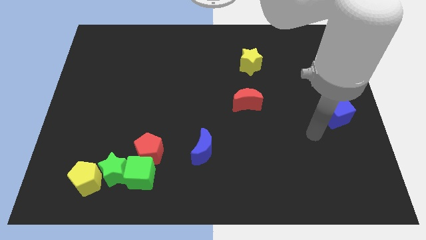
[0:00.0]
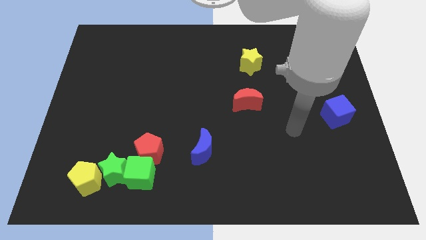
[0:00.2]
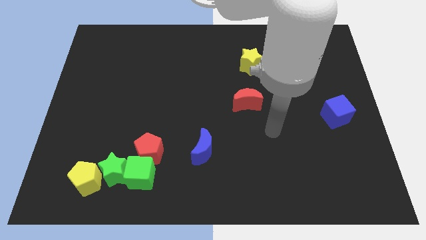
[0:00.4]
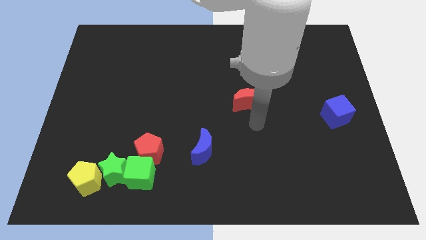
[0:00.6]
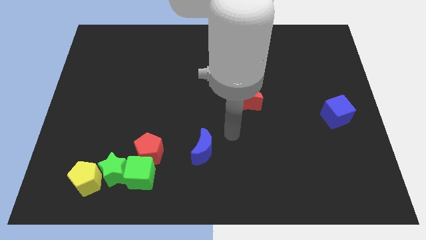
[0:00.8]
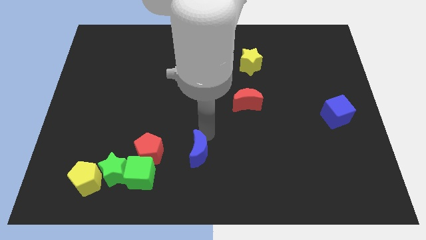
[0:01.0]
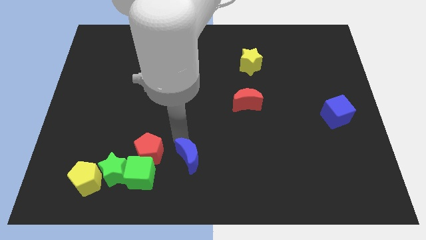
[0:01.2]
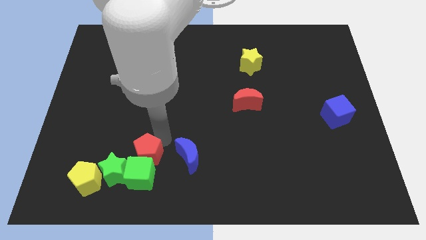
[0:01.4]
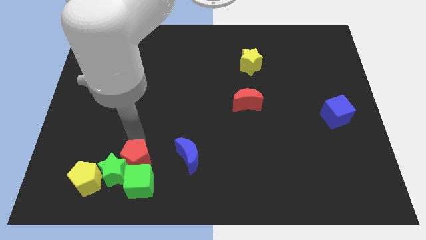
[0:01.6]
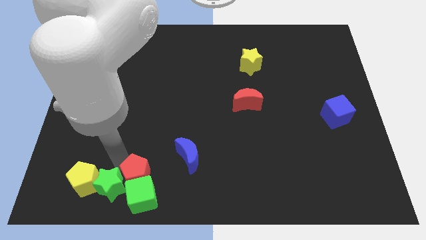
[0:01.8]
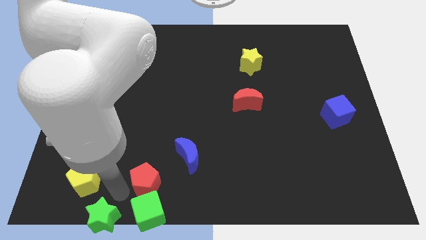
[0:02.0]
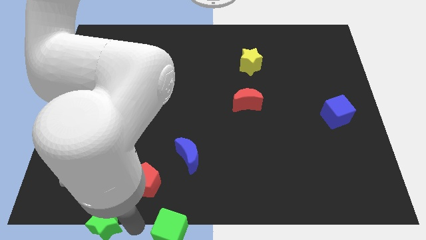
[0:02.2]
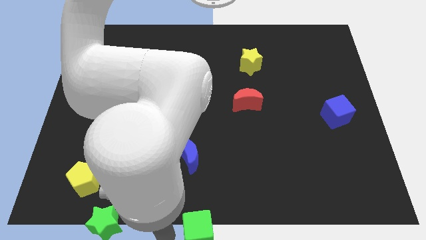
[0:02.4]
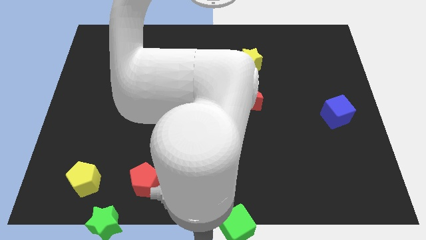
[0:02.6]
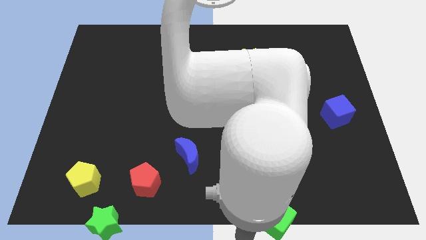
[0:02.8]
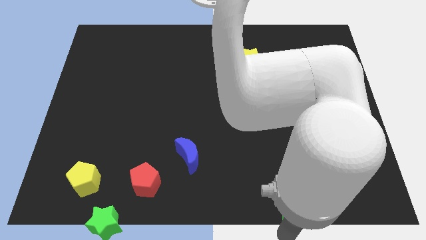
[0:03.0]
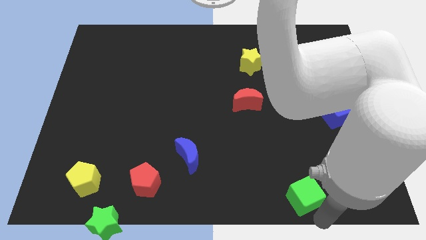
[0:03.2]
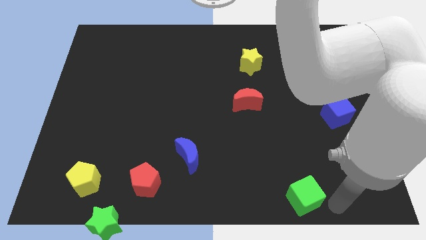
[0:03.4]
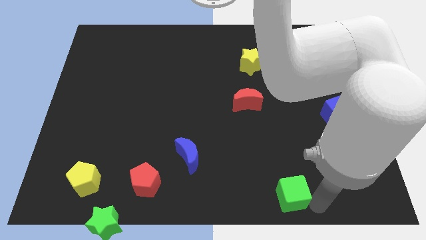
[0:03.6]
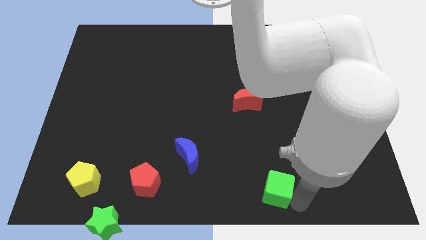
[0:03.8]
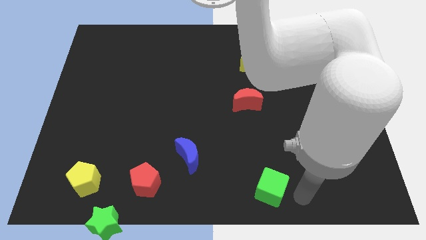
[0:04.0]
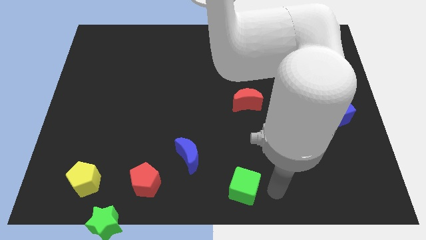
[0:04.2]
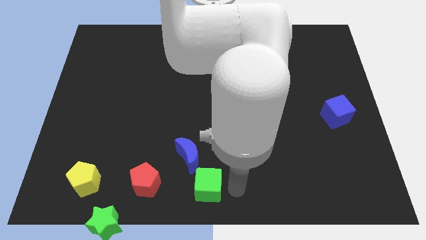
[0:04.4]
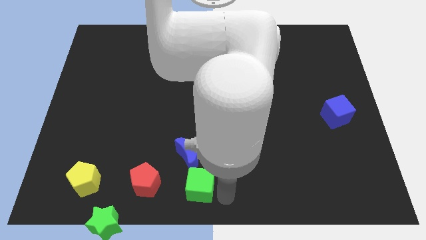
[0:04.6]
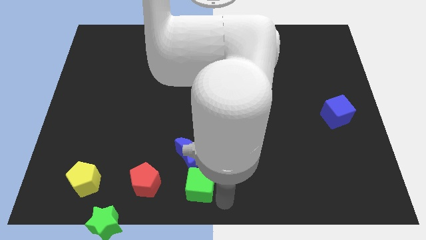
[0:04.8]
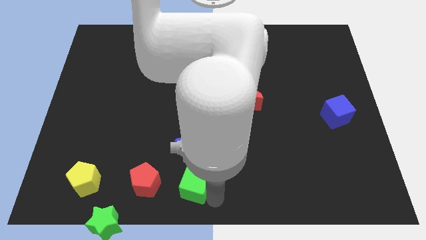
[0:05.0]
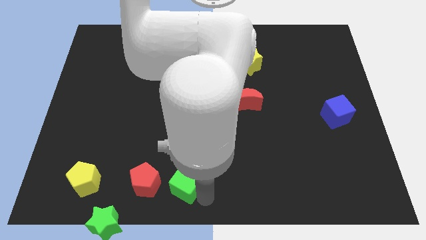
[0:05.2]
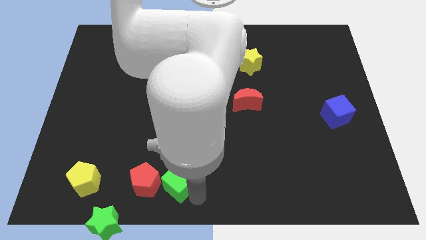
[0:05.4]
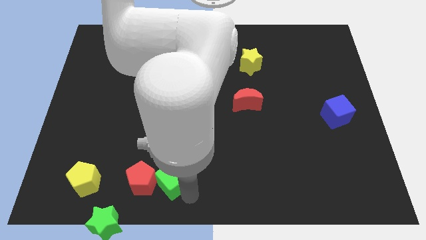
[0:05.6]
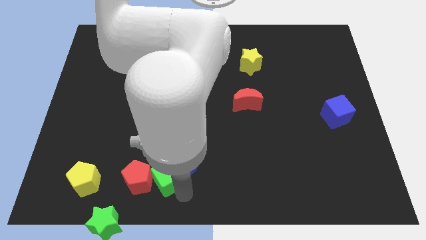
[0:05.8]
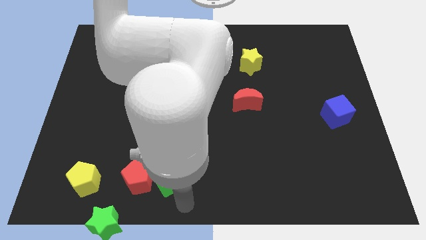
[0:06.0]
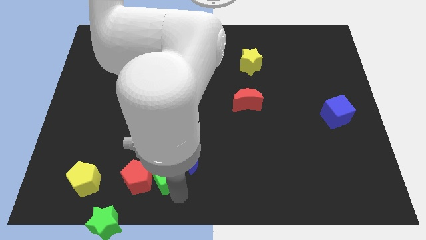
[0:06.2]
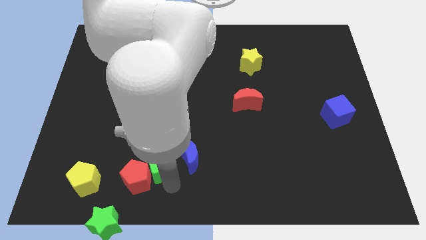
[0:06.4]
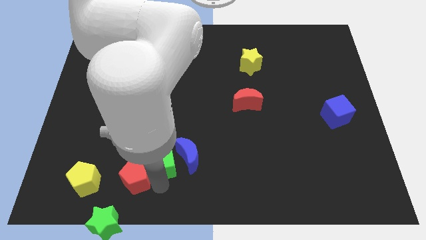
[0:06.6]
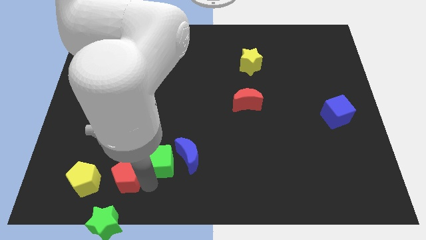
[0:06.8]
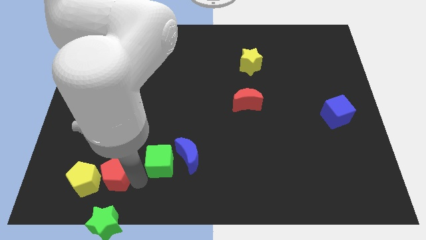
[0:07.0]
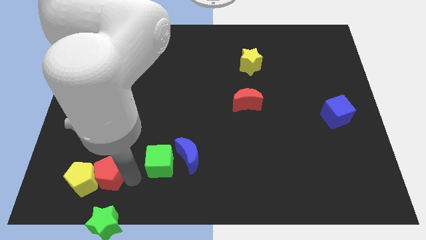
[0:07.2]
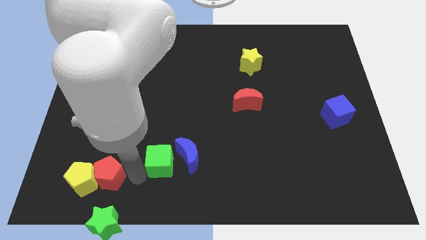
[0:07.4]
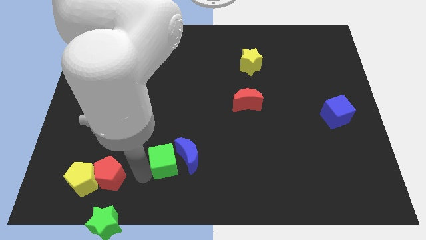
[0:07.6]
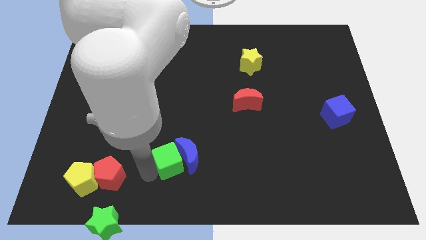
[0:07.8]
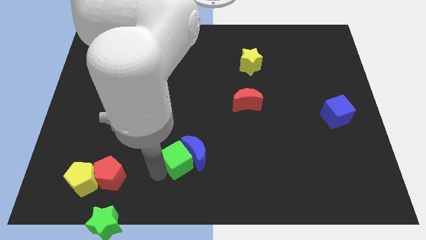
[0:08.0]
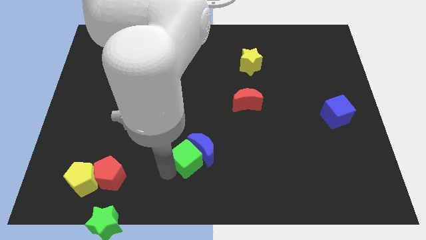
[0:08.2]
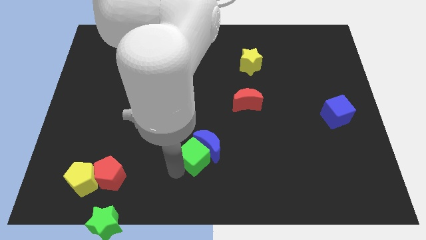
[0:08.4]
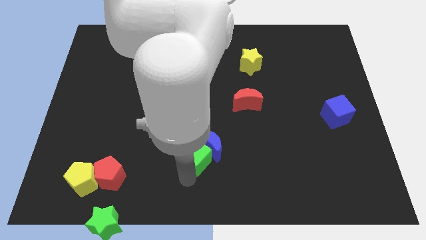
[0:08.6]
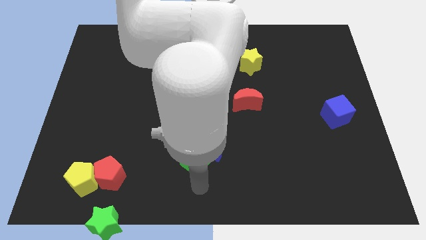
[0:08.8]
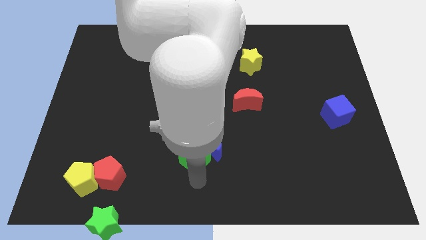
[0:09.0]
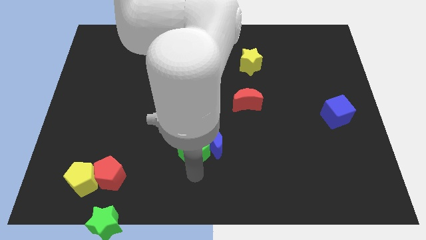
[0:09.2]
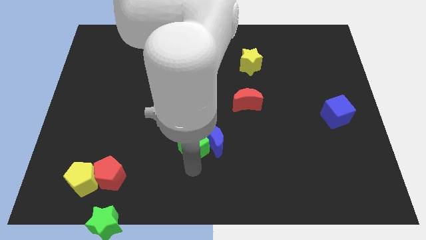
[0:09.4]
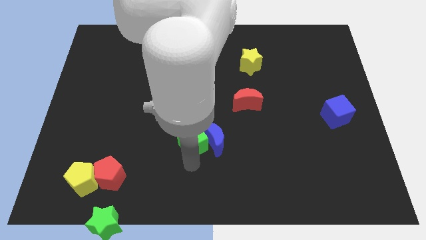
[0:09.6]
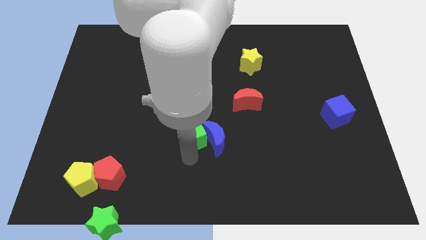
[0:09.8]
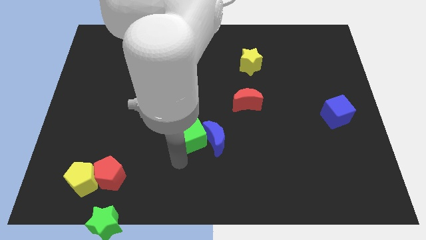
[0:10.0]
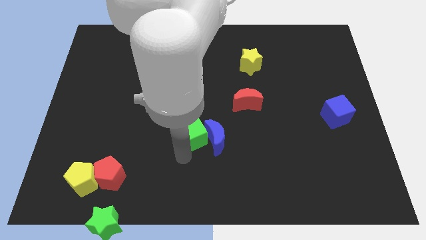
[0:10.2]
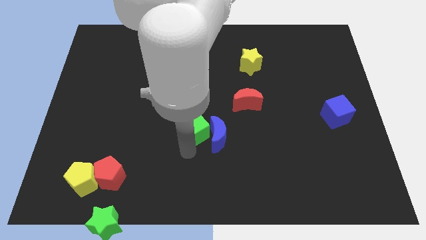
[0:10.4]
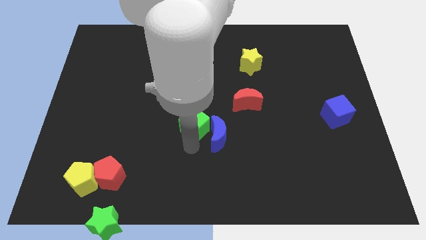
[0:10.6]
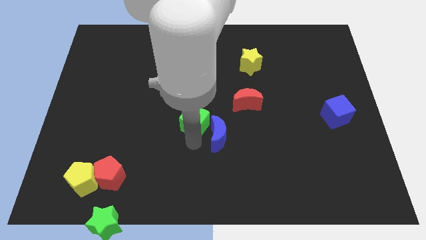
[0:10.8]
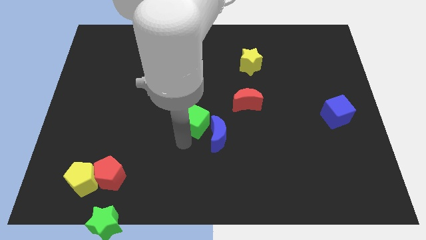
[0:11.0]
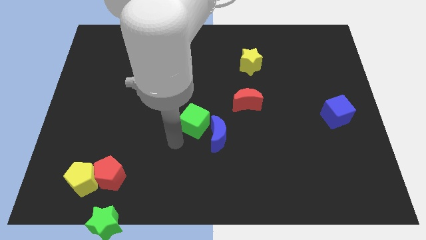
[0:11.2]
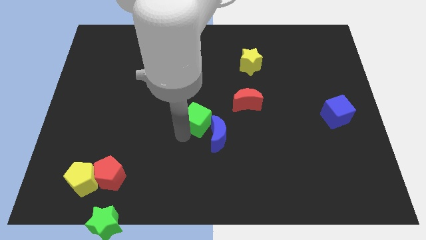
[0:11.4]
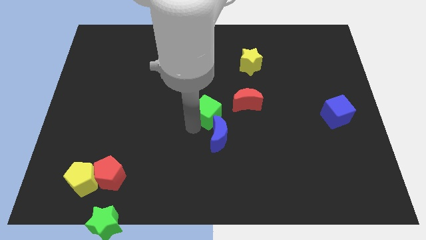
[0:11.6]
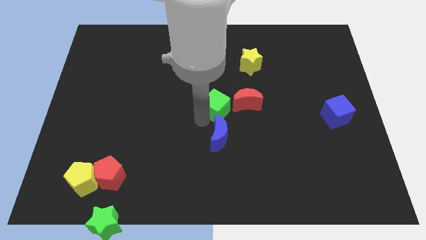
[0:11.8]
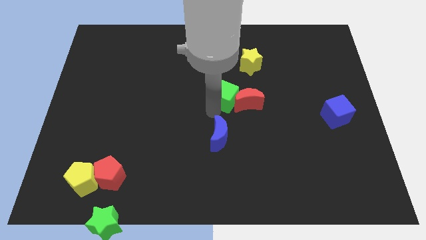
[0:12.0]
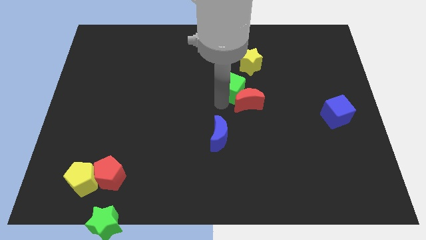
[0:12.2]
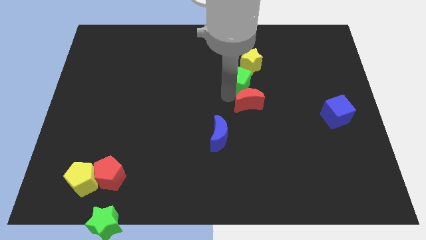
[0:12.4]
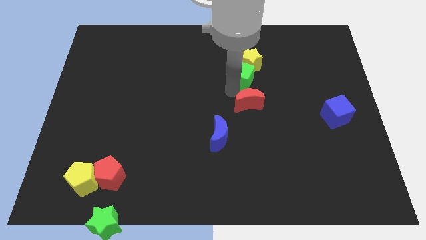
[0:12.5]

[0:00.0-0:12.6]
slide the green cube close to the yellow star

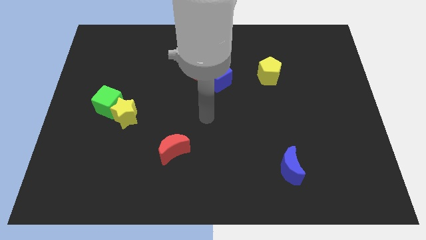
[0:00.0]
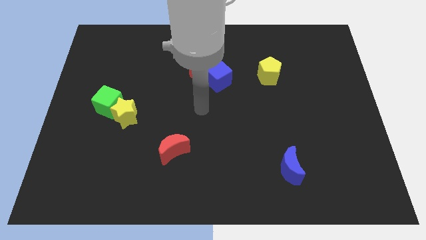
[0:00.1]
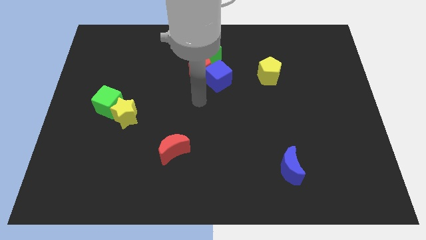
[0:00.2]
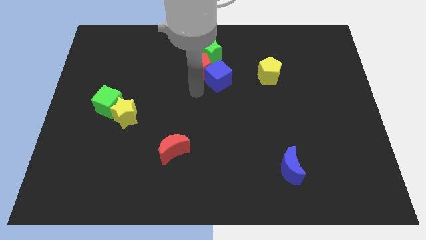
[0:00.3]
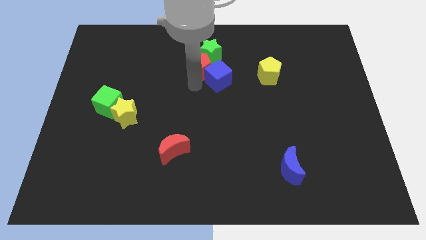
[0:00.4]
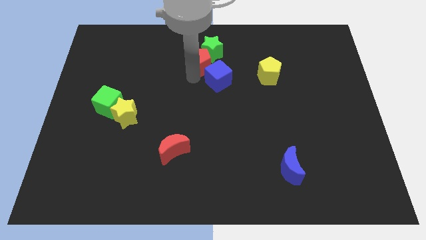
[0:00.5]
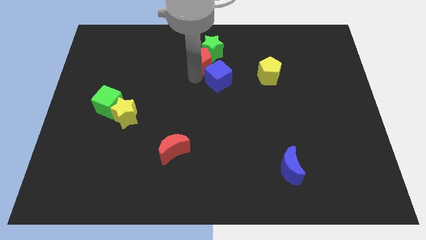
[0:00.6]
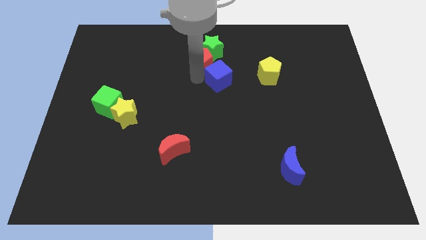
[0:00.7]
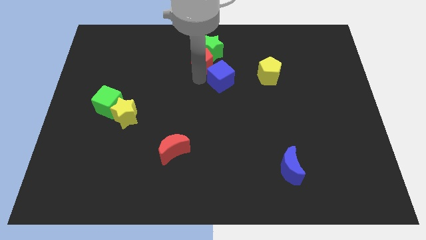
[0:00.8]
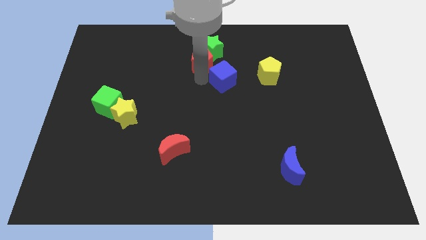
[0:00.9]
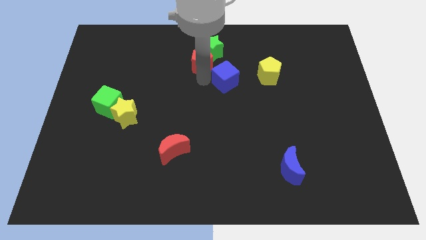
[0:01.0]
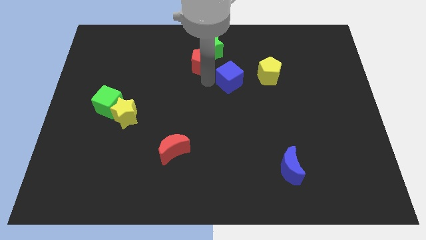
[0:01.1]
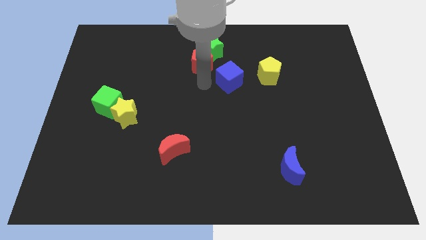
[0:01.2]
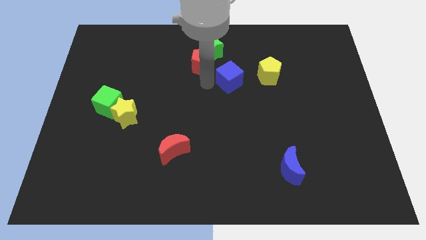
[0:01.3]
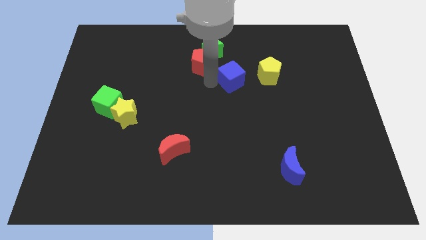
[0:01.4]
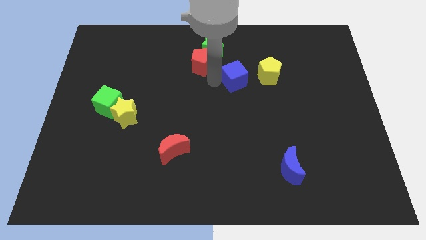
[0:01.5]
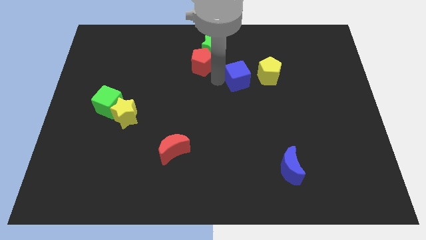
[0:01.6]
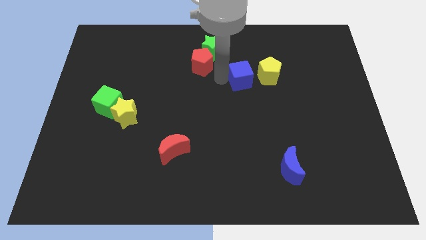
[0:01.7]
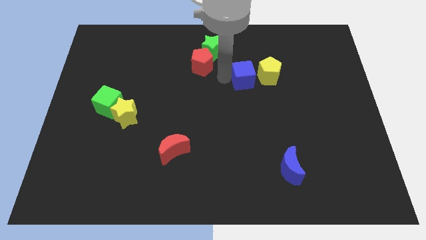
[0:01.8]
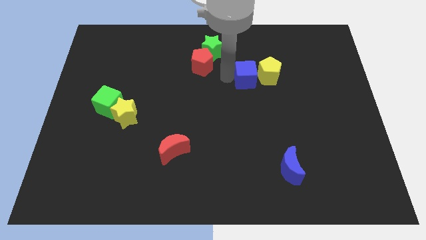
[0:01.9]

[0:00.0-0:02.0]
slide the blue cube close to the yellow pentagon
